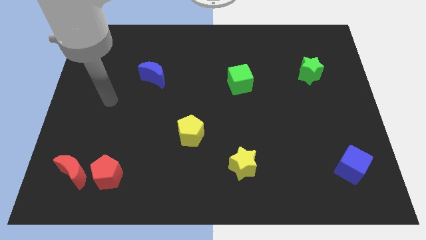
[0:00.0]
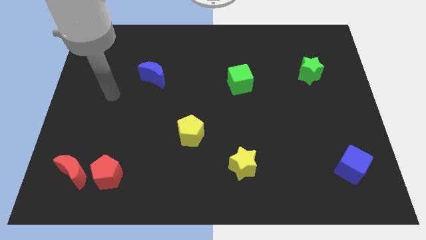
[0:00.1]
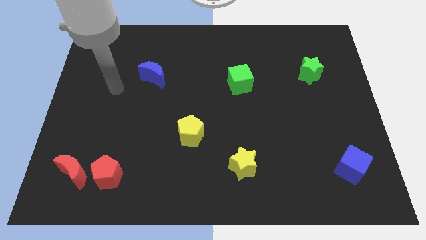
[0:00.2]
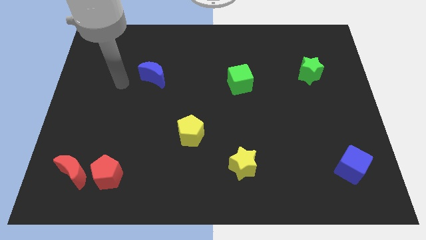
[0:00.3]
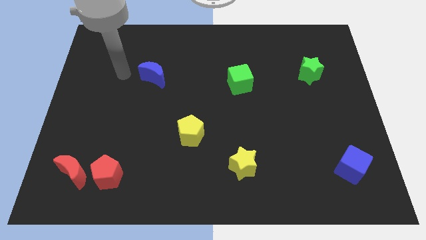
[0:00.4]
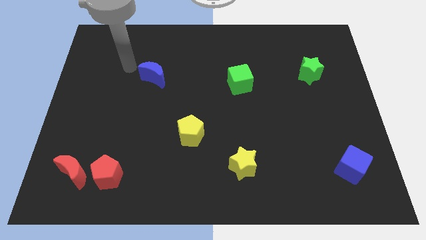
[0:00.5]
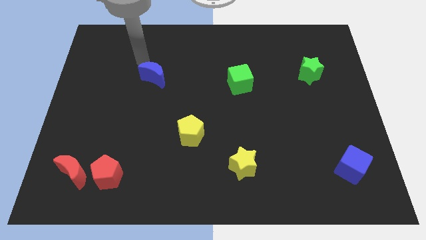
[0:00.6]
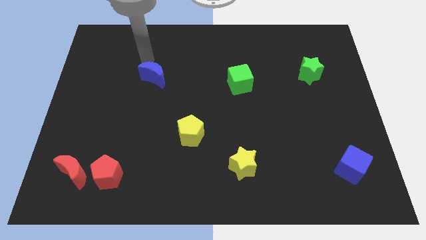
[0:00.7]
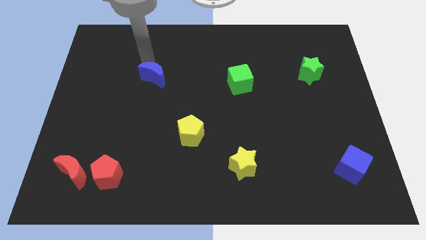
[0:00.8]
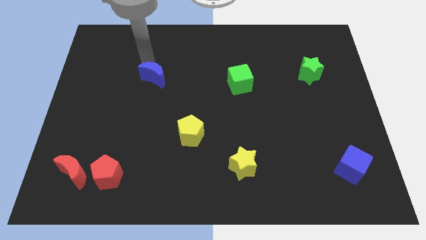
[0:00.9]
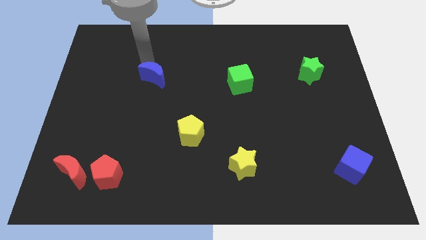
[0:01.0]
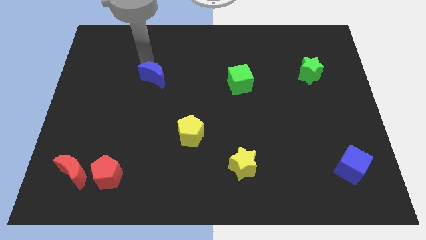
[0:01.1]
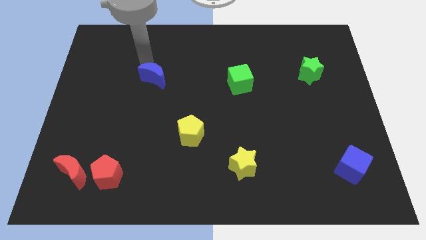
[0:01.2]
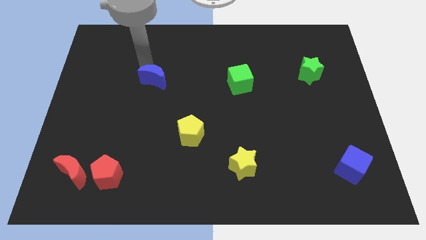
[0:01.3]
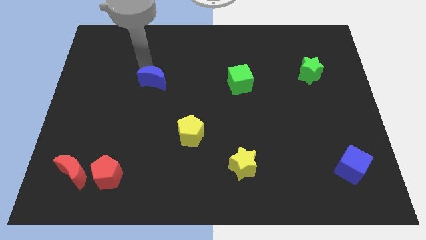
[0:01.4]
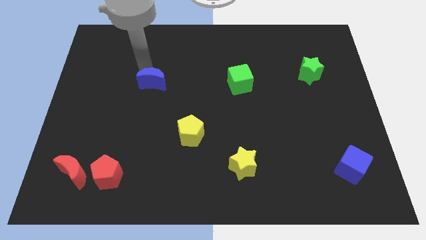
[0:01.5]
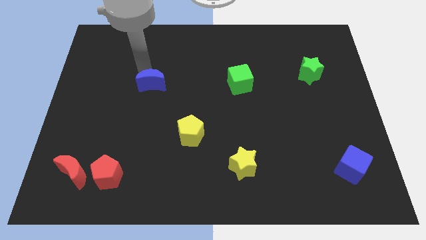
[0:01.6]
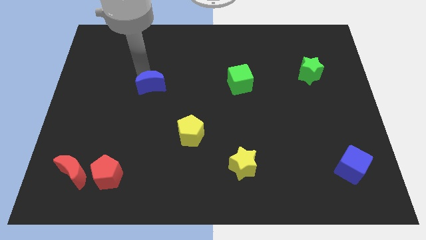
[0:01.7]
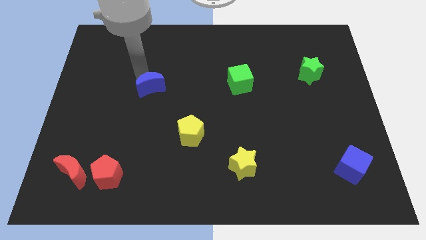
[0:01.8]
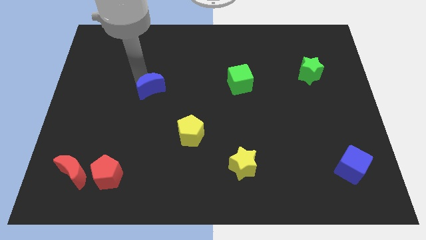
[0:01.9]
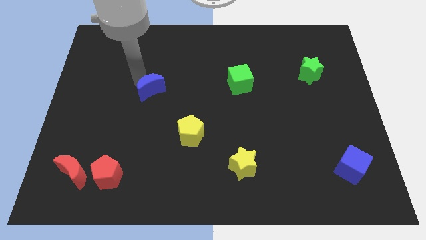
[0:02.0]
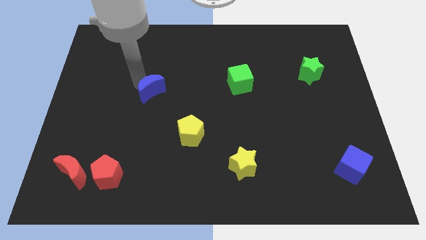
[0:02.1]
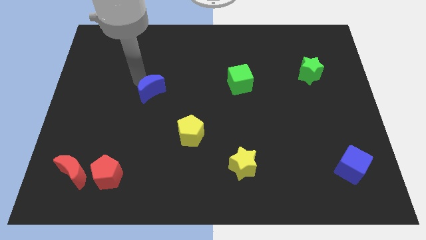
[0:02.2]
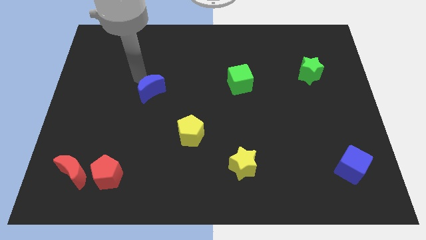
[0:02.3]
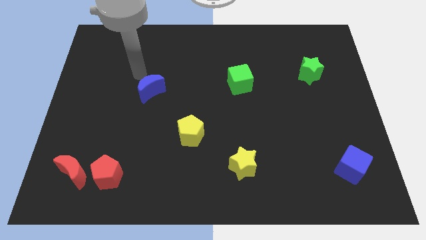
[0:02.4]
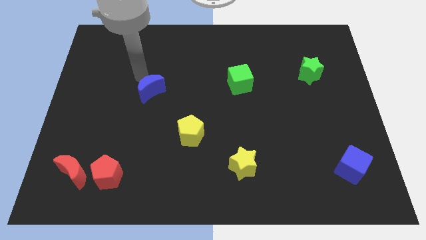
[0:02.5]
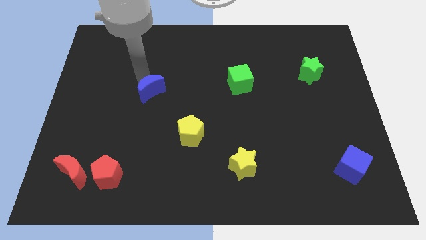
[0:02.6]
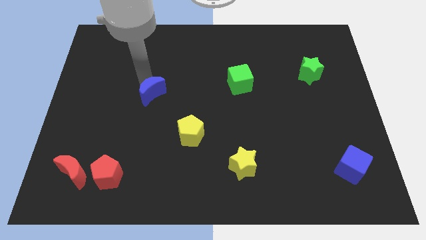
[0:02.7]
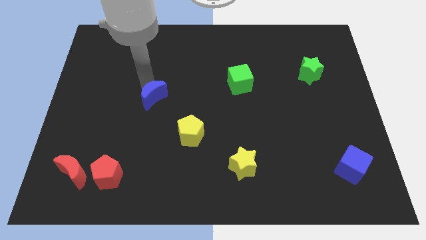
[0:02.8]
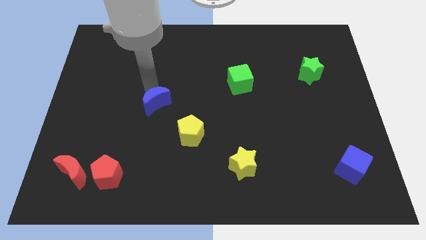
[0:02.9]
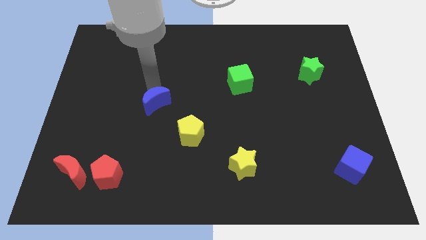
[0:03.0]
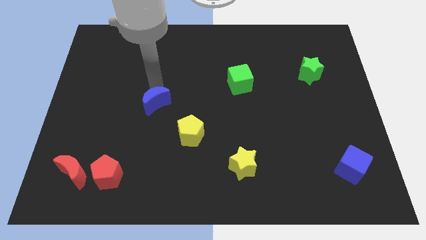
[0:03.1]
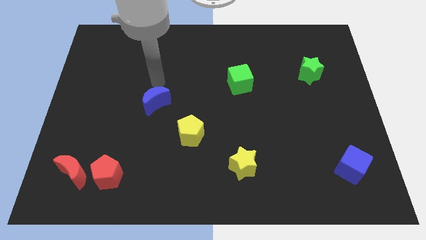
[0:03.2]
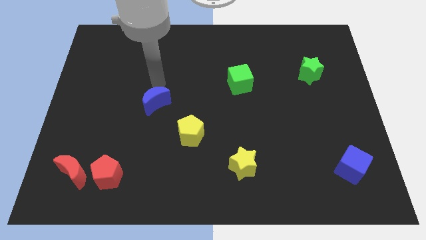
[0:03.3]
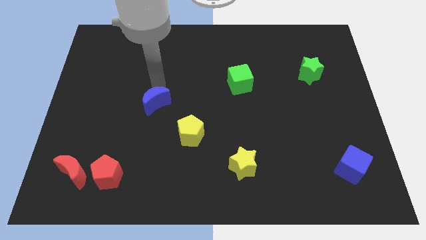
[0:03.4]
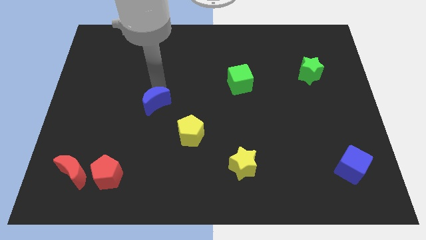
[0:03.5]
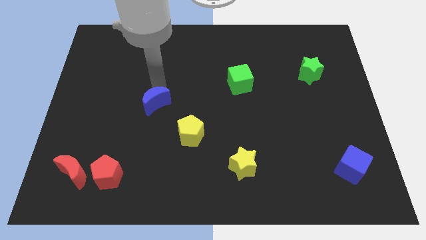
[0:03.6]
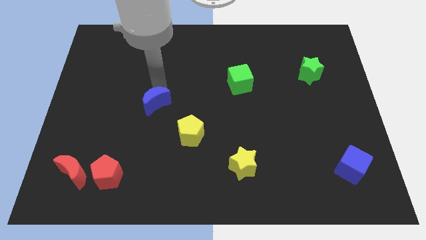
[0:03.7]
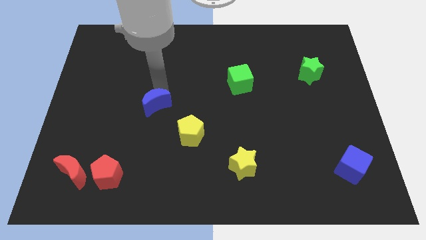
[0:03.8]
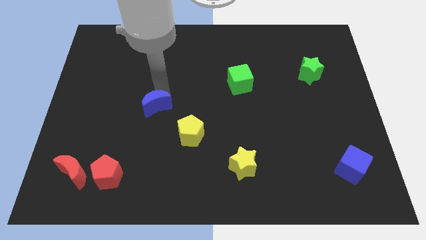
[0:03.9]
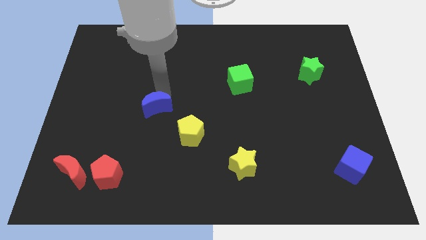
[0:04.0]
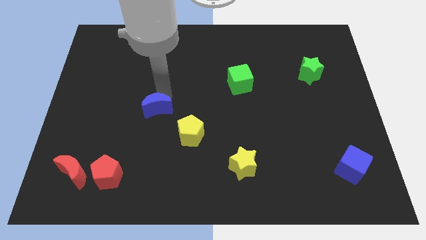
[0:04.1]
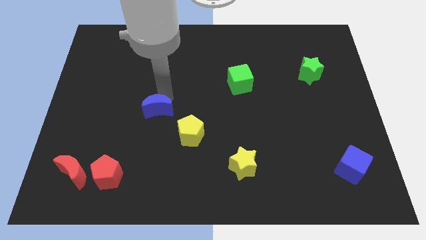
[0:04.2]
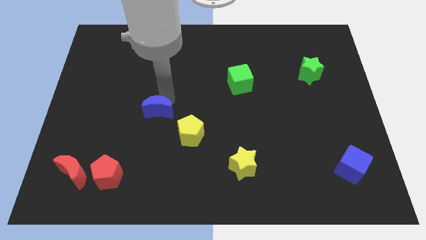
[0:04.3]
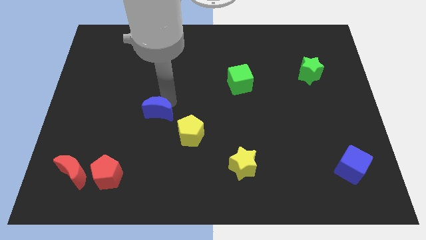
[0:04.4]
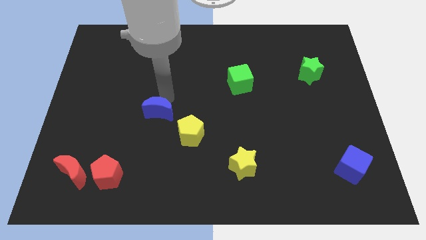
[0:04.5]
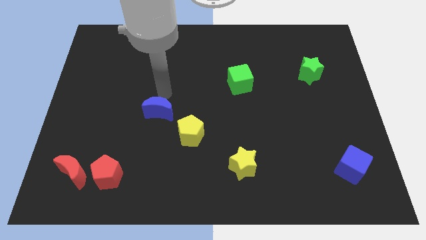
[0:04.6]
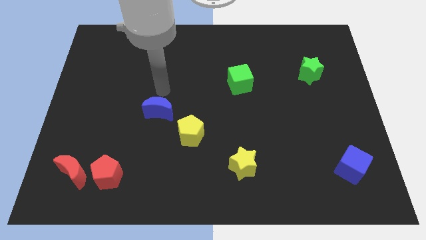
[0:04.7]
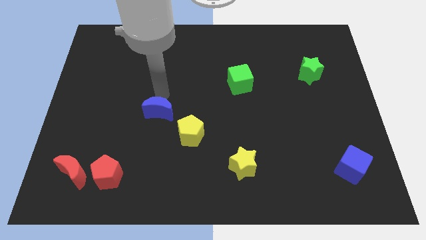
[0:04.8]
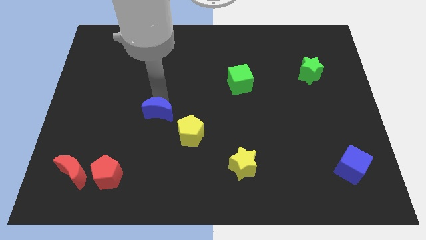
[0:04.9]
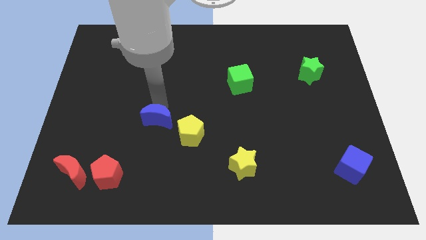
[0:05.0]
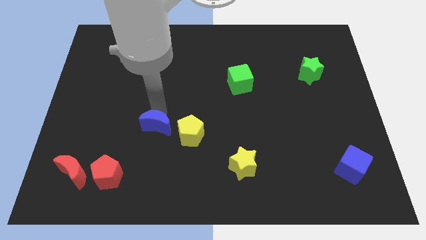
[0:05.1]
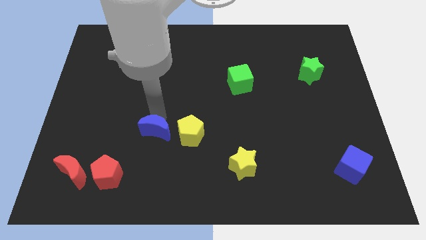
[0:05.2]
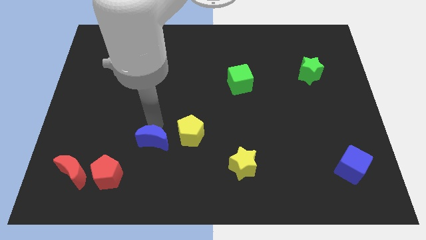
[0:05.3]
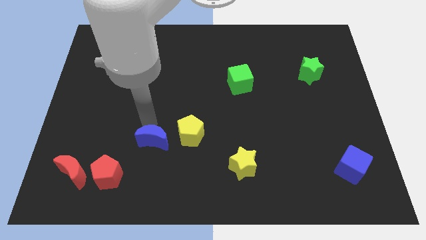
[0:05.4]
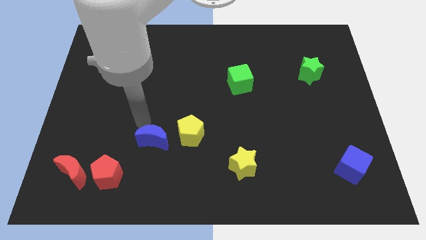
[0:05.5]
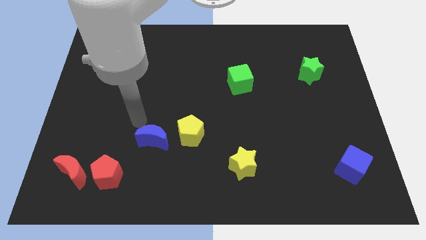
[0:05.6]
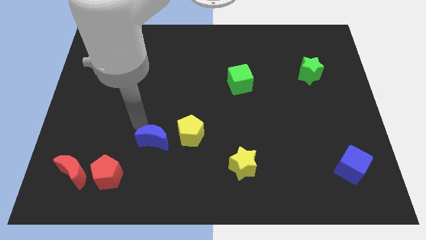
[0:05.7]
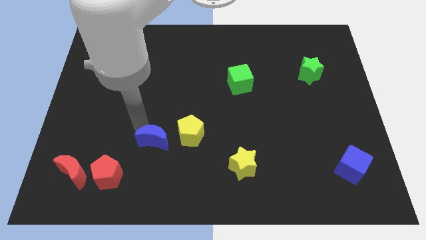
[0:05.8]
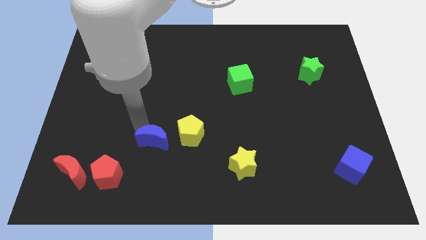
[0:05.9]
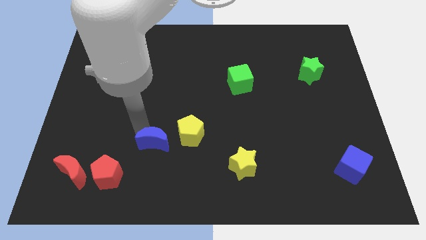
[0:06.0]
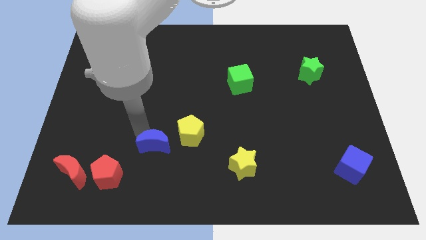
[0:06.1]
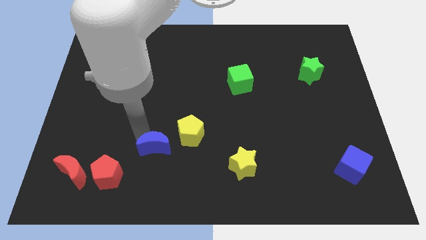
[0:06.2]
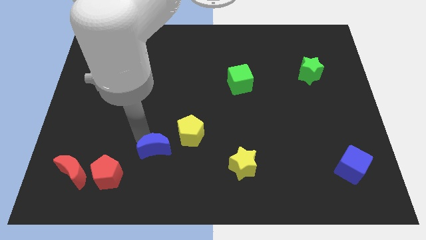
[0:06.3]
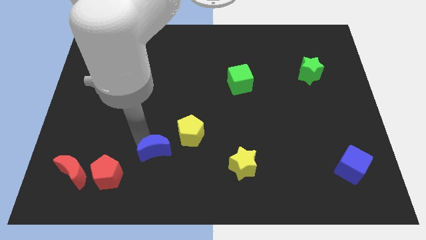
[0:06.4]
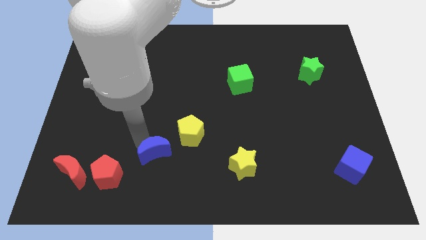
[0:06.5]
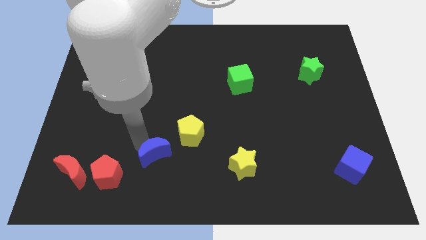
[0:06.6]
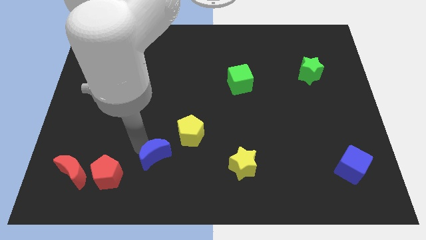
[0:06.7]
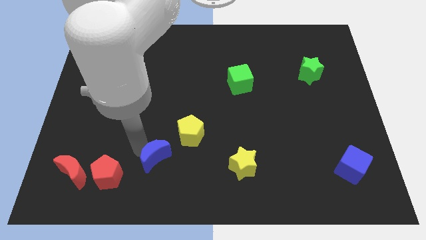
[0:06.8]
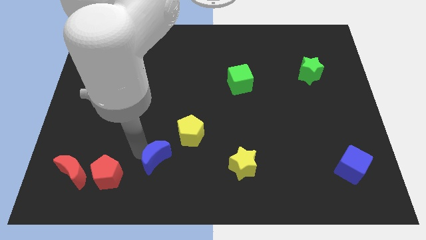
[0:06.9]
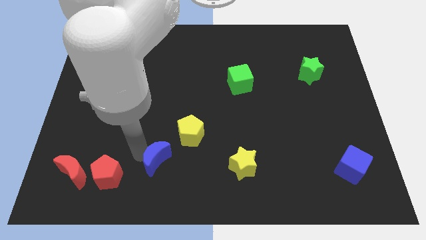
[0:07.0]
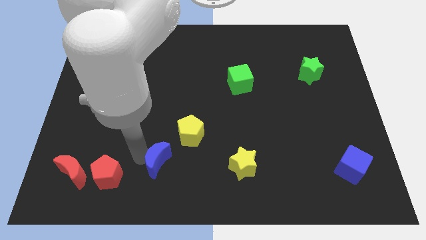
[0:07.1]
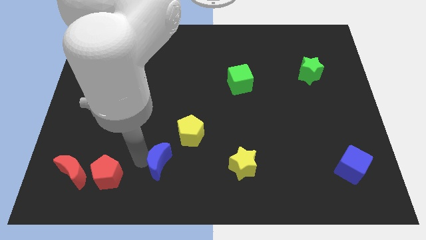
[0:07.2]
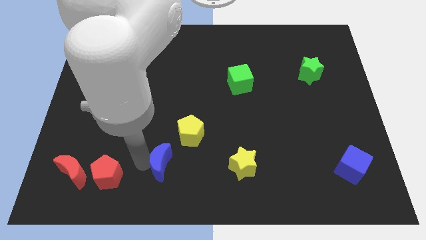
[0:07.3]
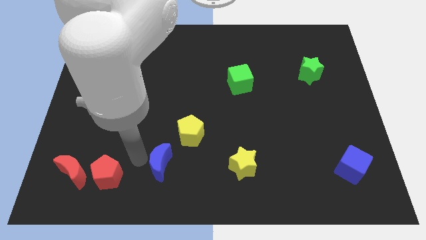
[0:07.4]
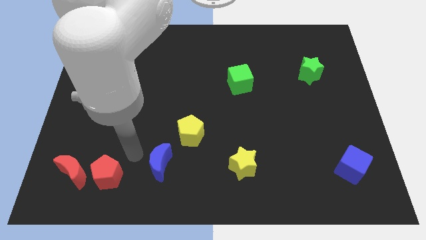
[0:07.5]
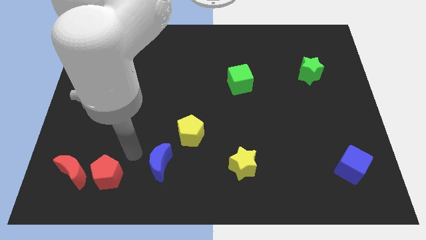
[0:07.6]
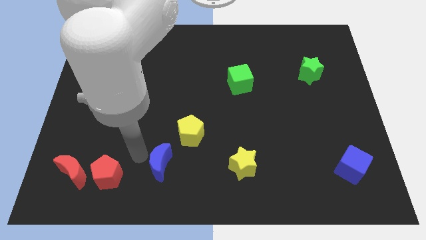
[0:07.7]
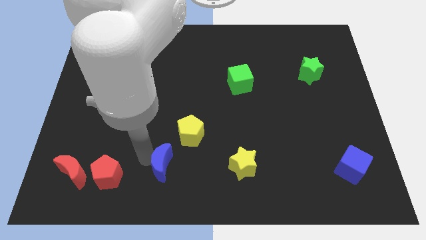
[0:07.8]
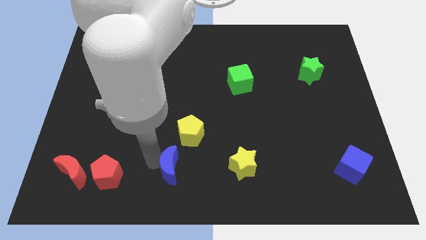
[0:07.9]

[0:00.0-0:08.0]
move the blue moon to the bottom side
